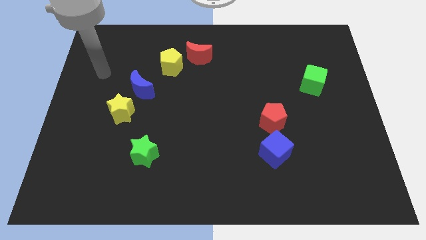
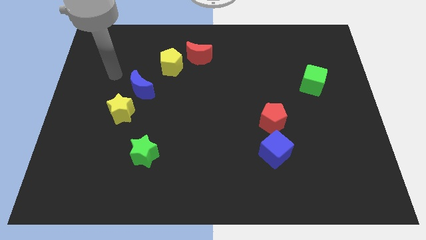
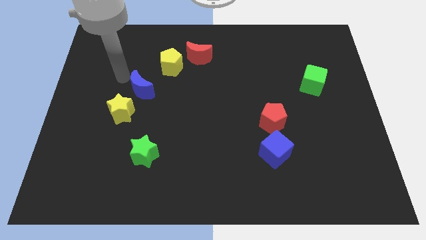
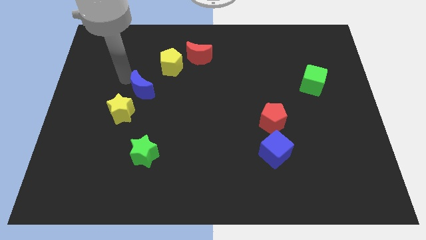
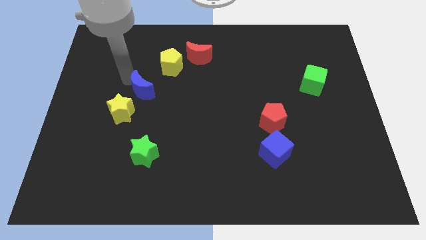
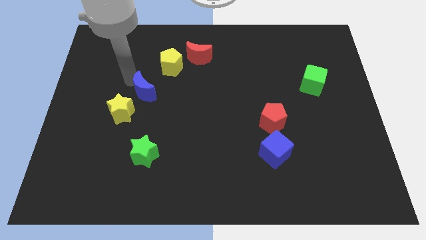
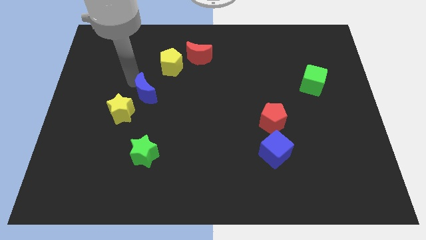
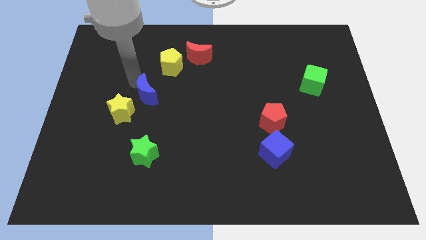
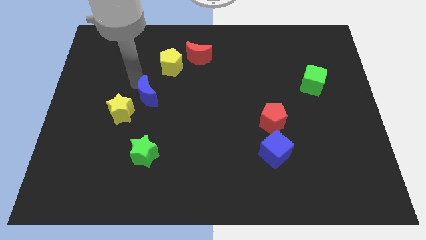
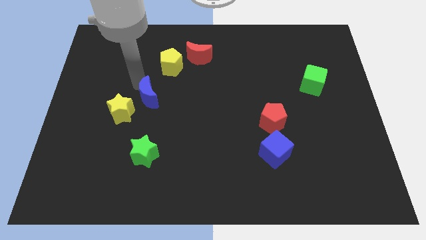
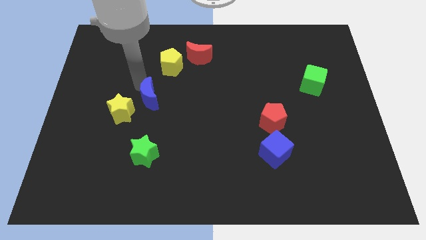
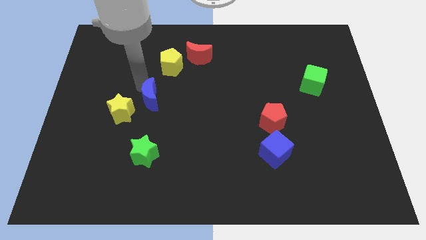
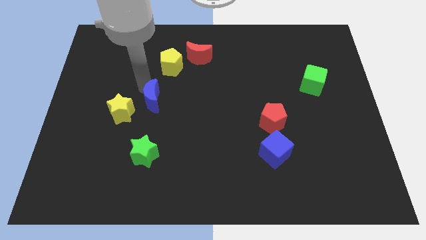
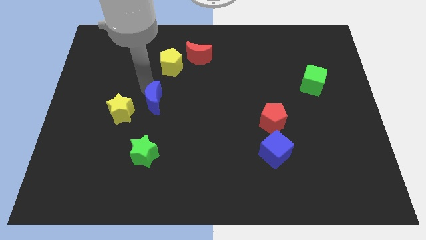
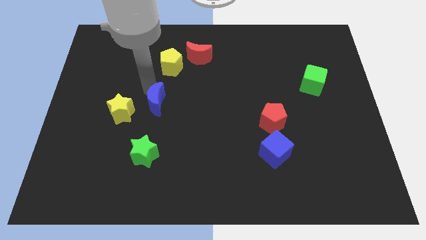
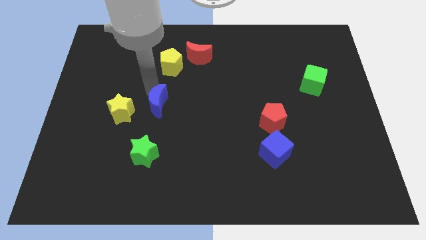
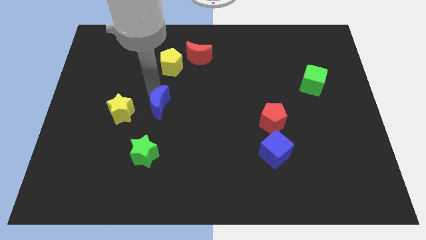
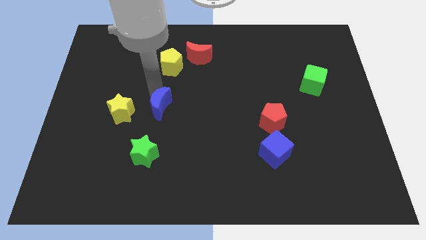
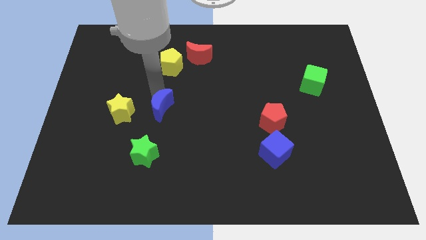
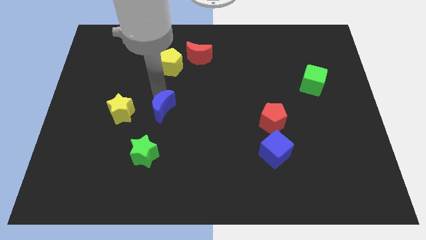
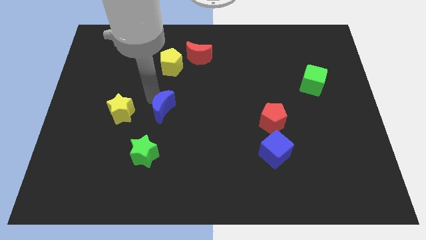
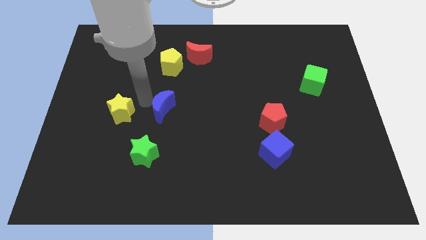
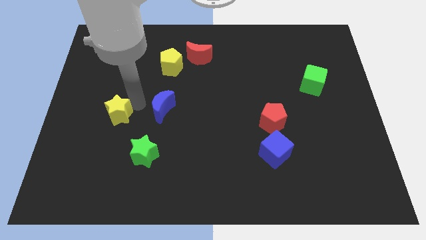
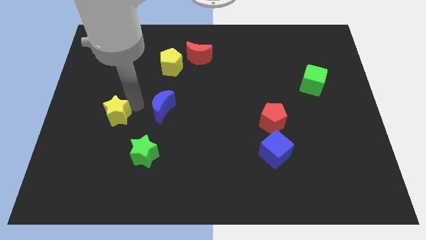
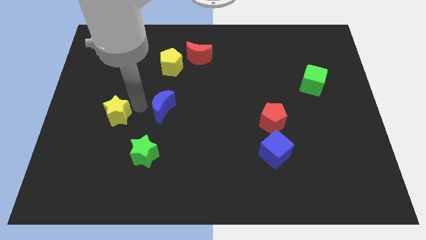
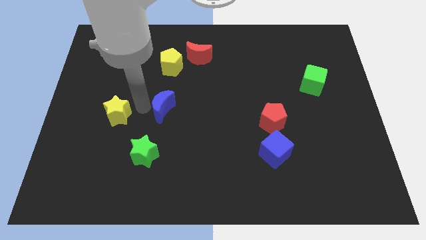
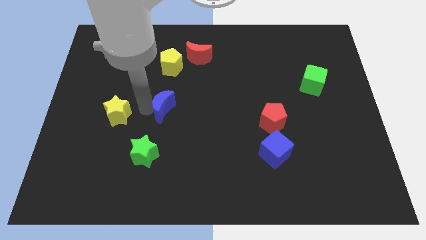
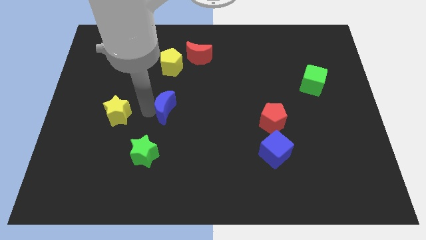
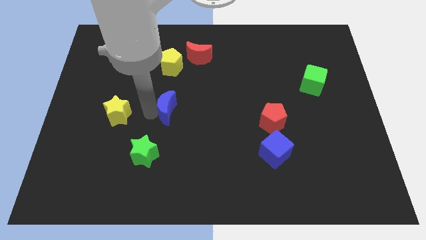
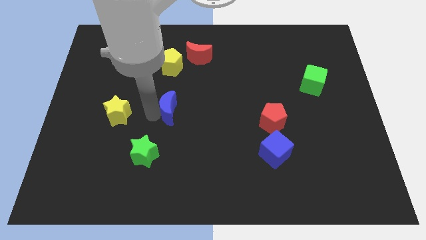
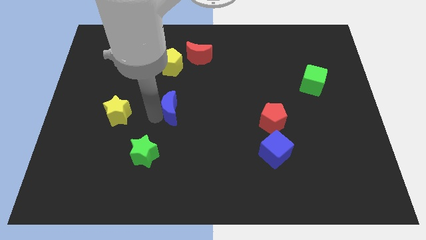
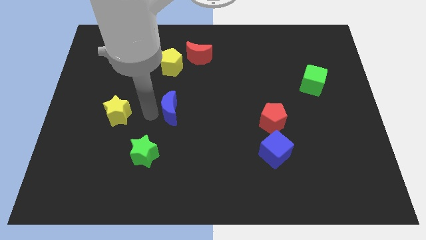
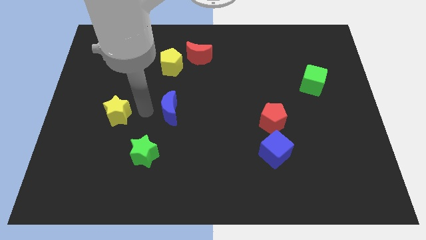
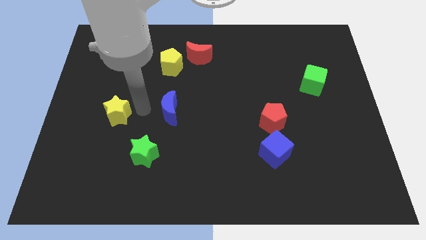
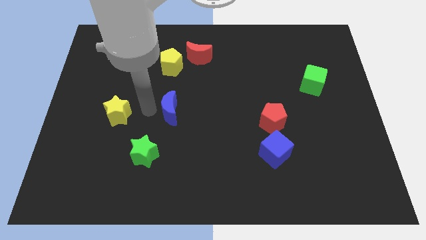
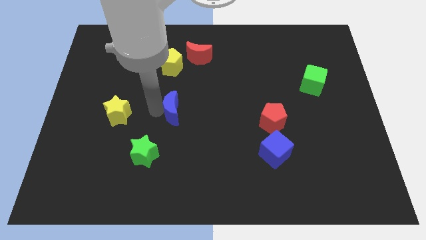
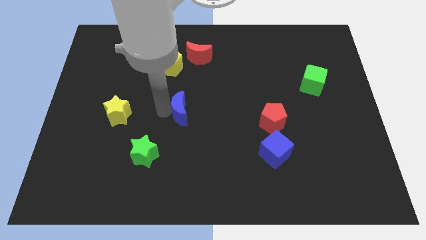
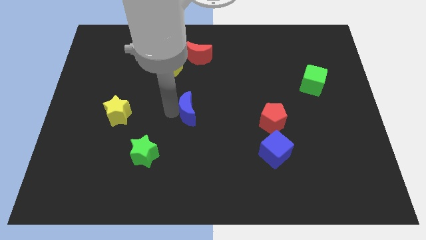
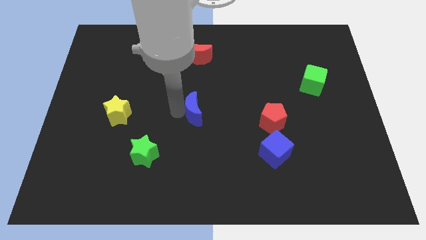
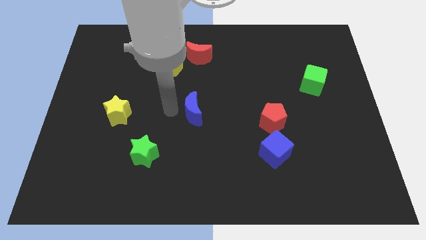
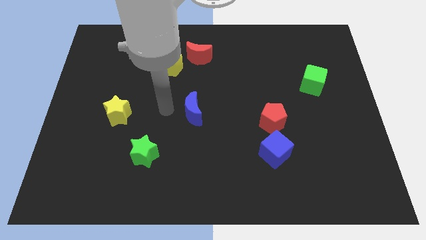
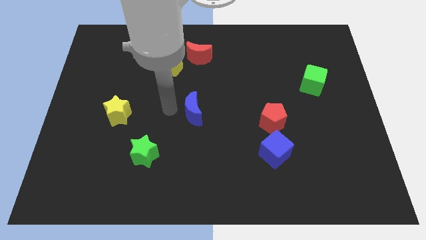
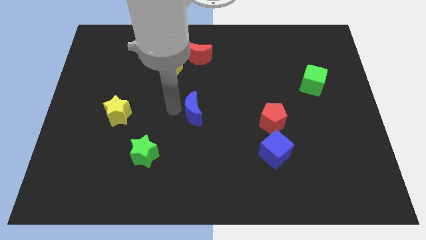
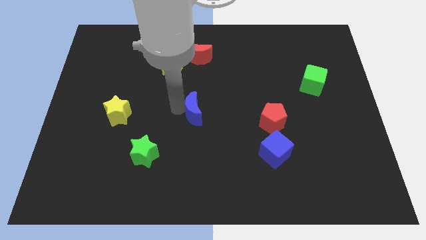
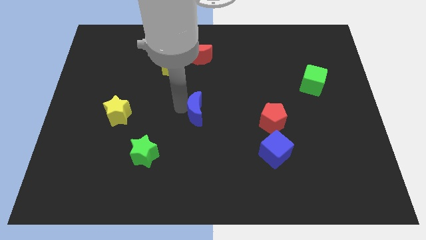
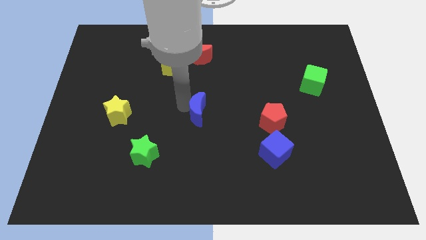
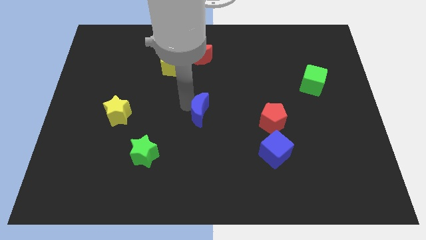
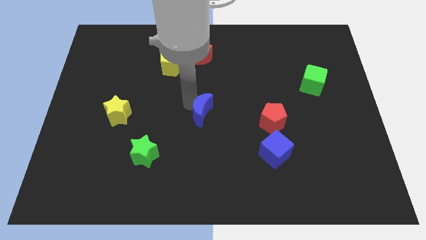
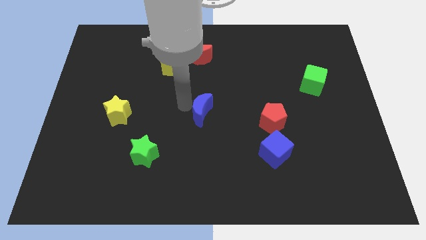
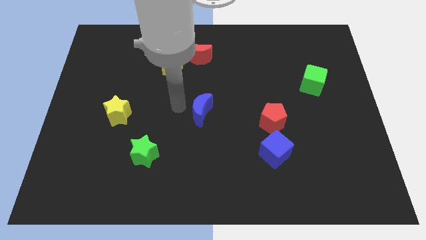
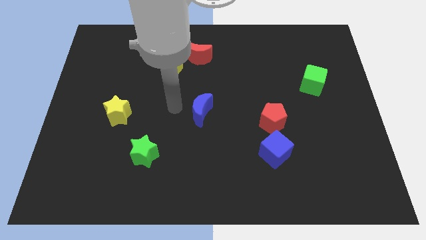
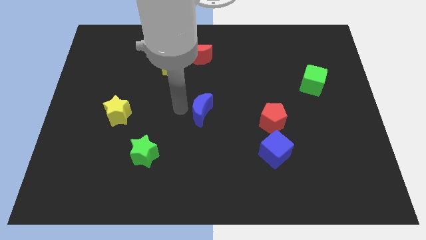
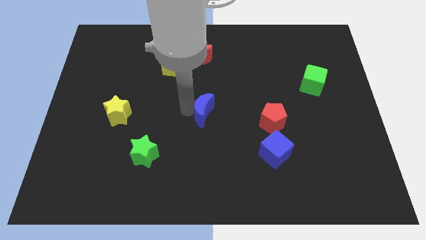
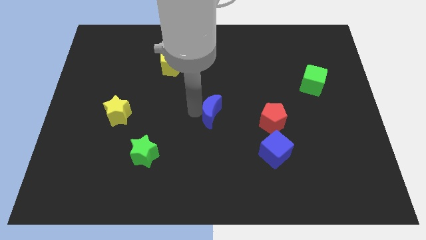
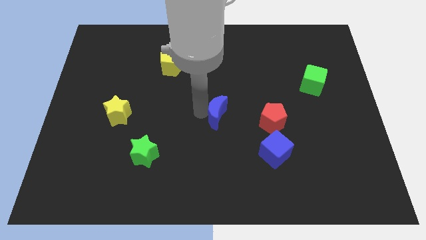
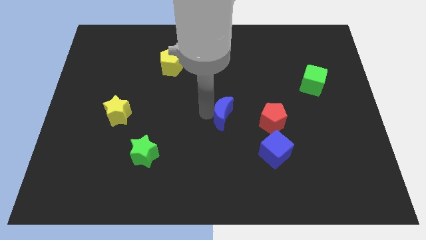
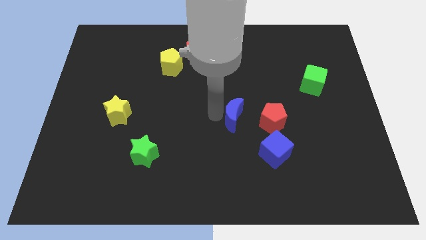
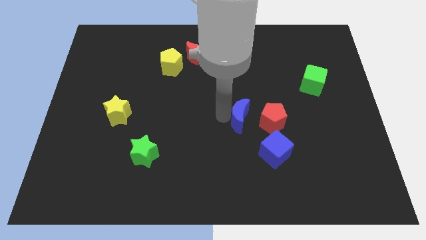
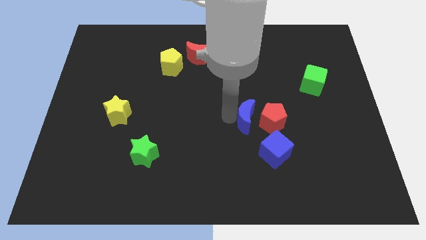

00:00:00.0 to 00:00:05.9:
put the blue moon next to the red pentagon

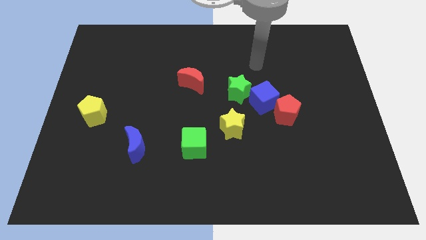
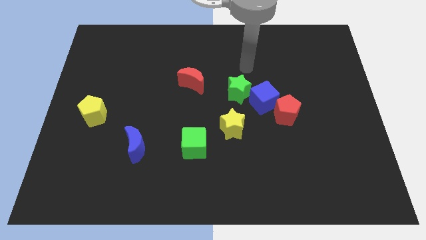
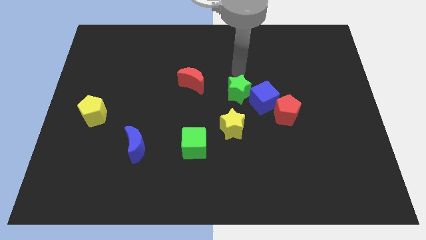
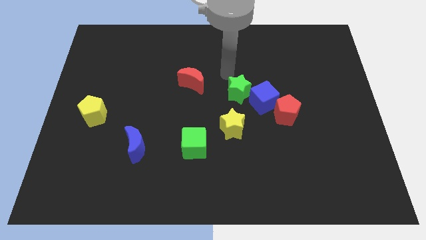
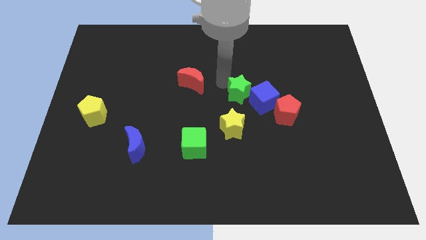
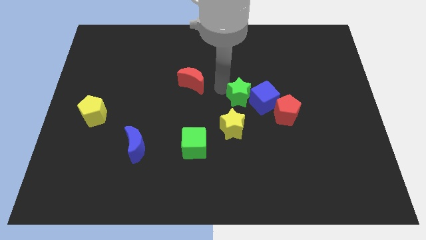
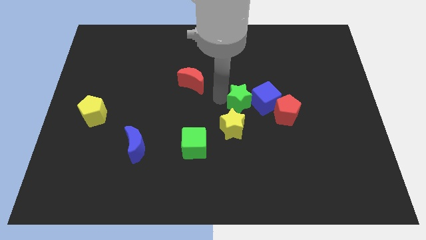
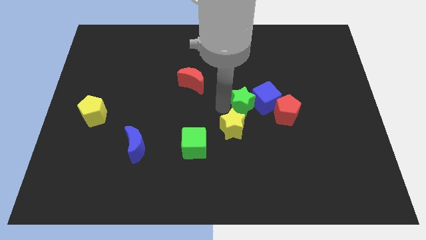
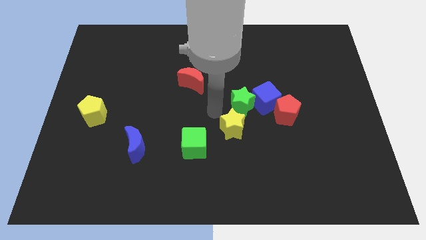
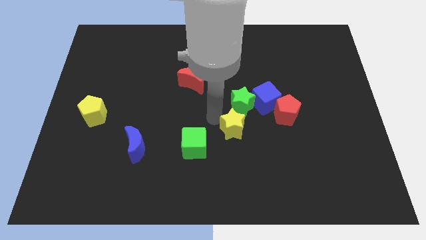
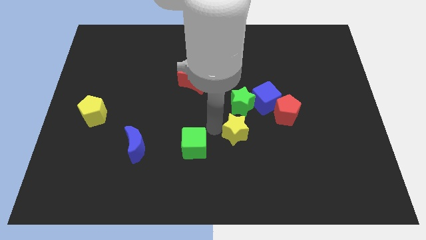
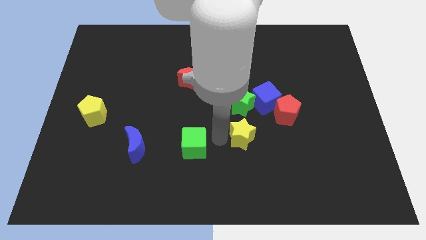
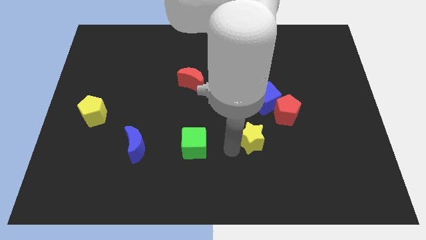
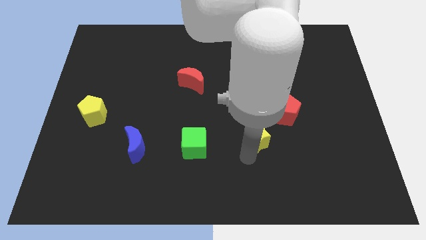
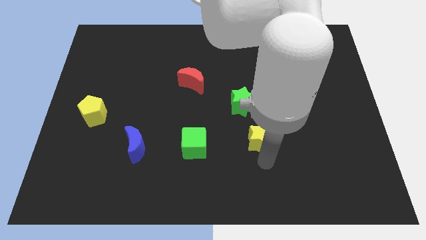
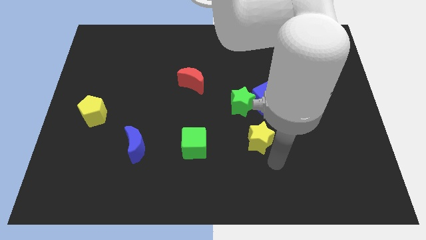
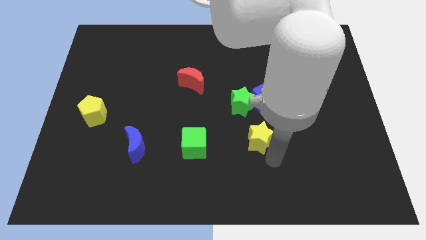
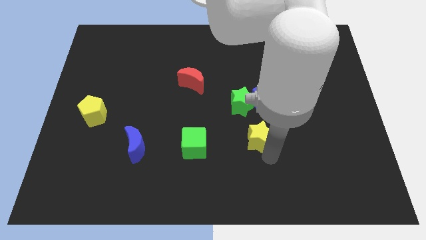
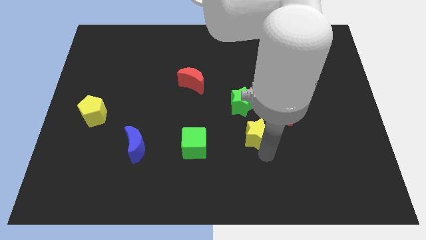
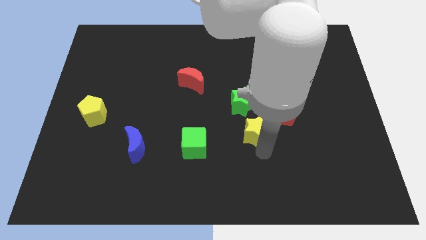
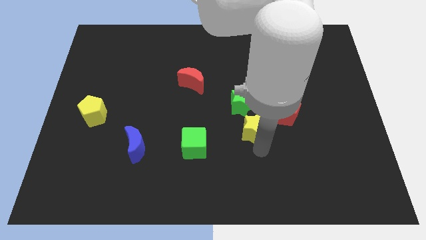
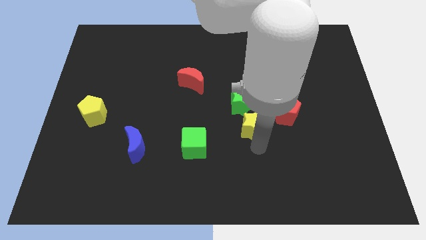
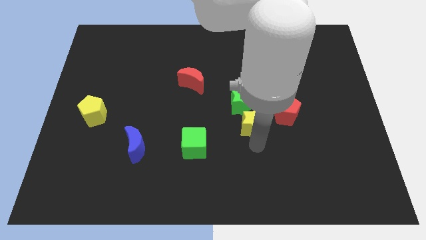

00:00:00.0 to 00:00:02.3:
push the yellow star to the green star

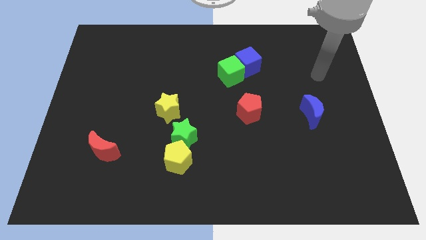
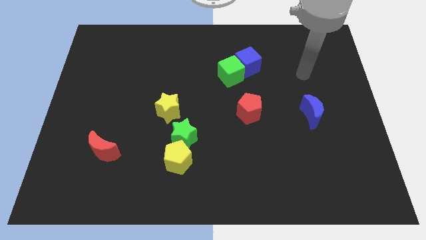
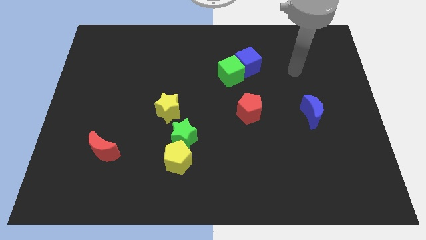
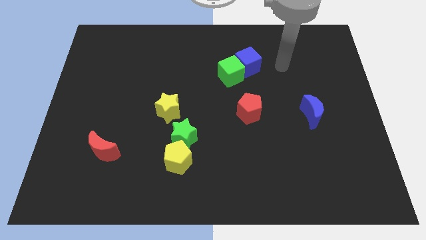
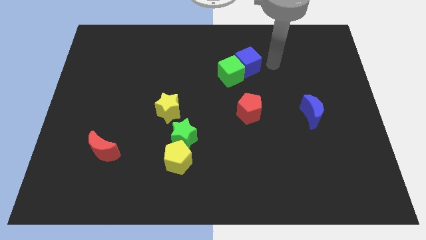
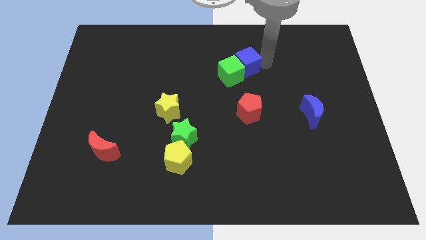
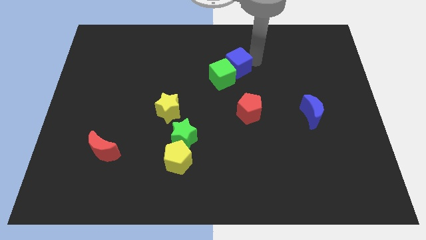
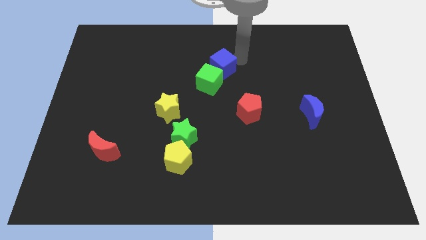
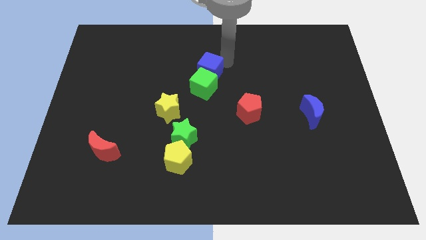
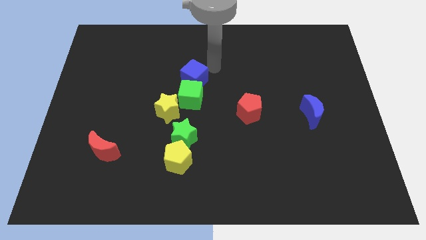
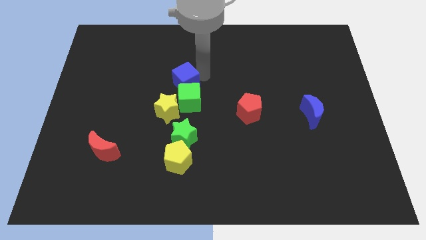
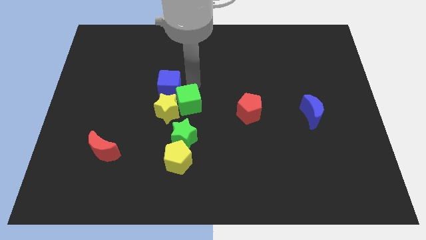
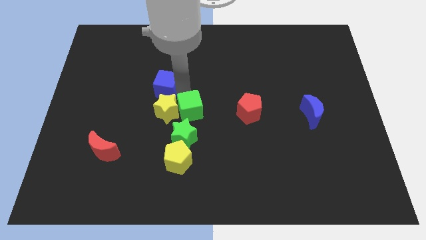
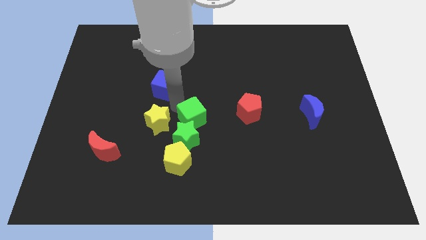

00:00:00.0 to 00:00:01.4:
move the green cube towards the green star
